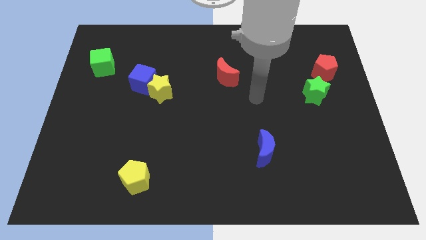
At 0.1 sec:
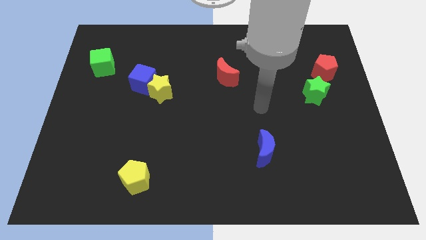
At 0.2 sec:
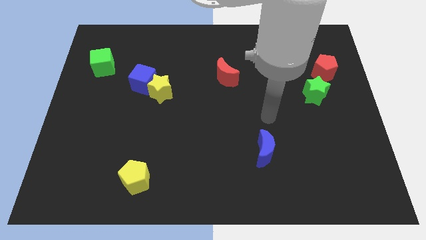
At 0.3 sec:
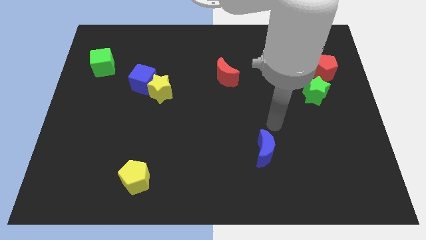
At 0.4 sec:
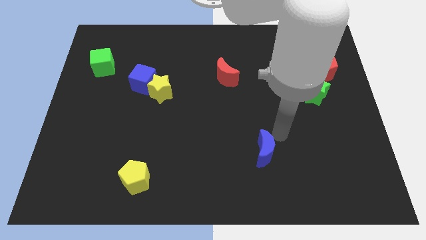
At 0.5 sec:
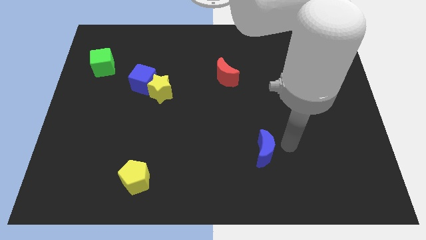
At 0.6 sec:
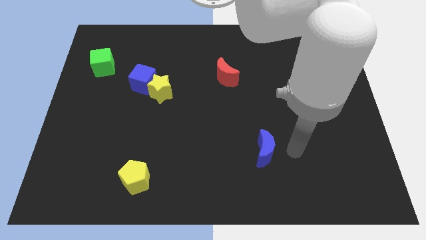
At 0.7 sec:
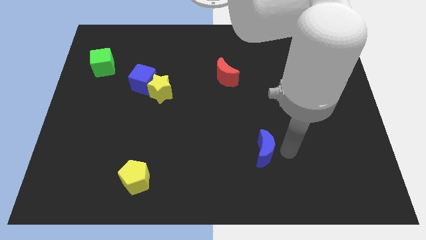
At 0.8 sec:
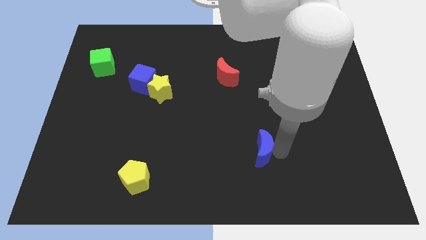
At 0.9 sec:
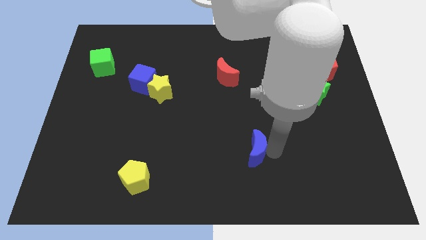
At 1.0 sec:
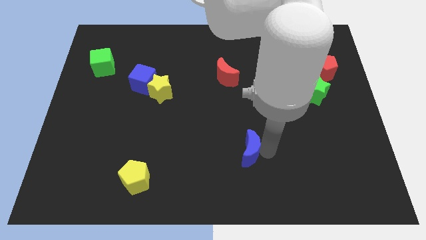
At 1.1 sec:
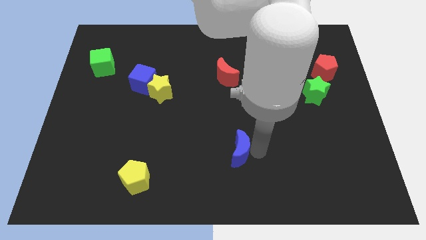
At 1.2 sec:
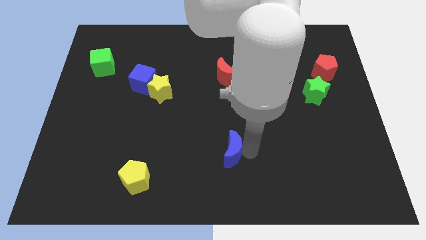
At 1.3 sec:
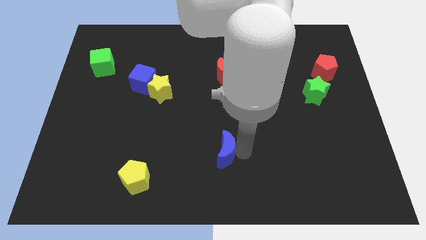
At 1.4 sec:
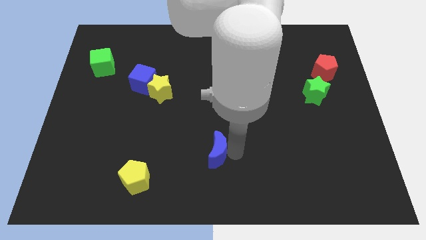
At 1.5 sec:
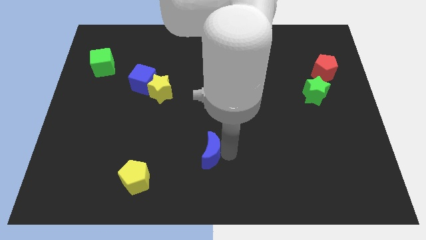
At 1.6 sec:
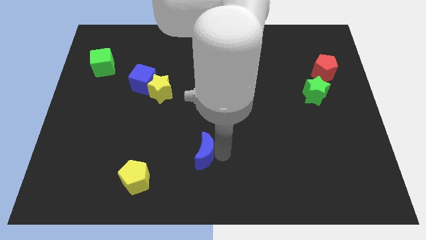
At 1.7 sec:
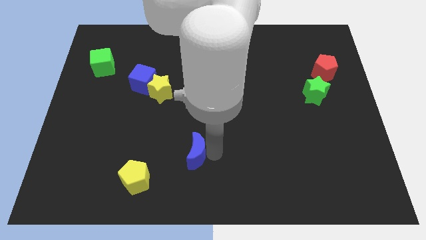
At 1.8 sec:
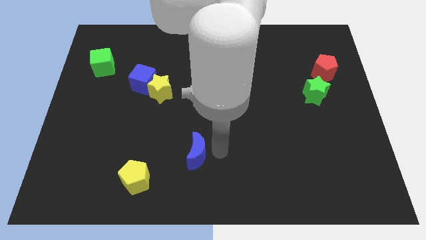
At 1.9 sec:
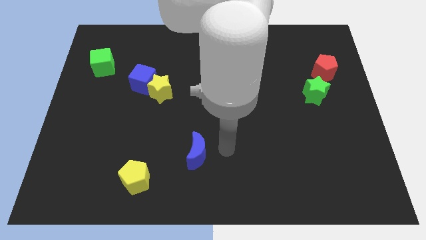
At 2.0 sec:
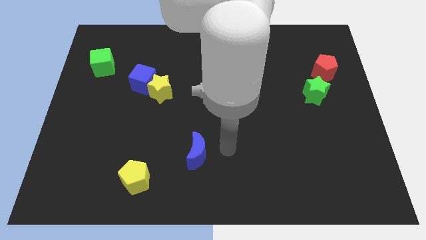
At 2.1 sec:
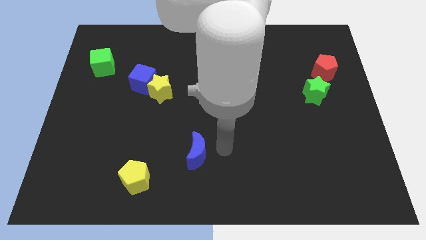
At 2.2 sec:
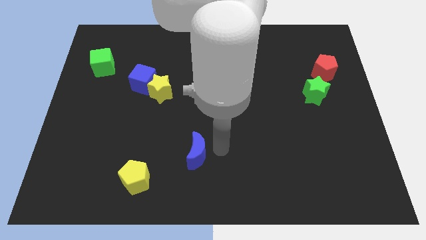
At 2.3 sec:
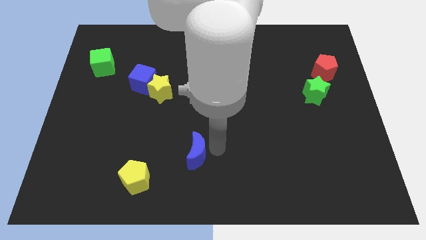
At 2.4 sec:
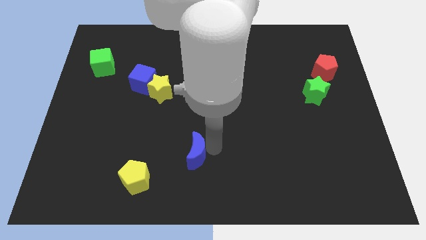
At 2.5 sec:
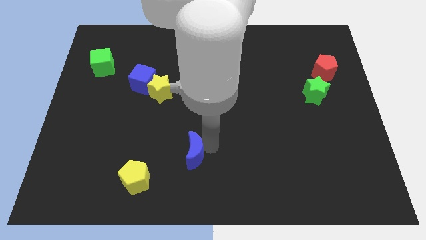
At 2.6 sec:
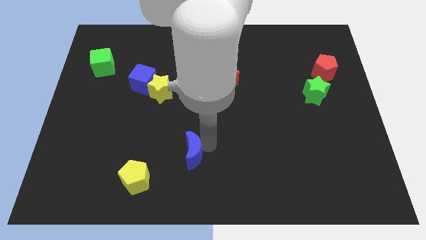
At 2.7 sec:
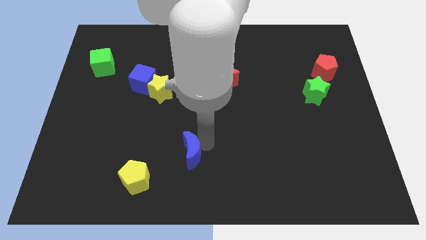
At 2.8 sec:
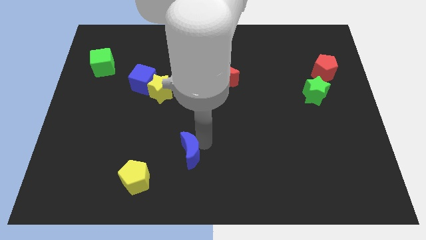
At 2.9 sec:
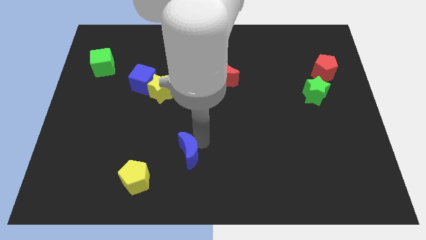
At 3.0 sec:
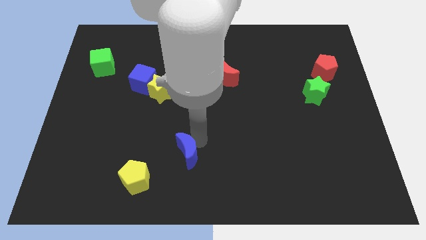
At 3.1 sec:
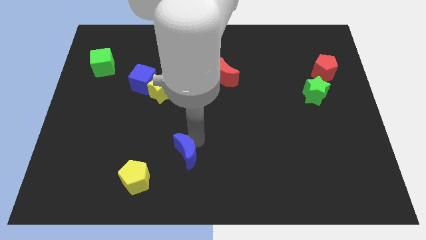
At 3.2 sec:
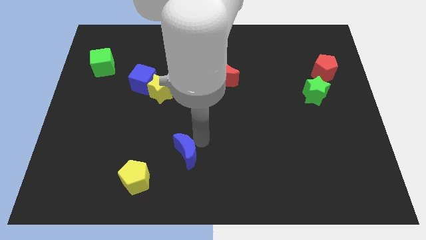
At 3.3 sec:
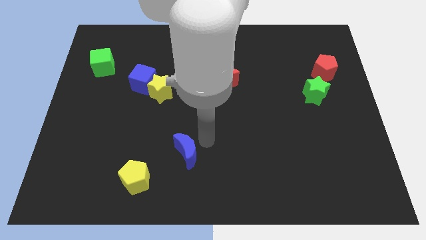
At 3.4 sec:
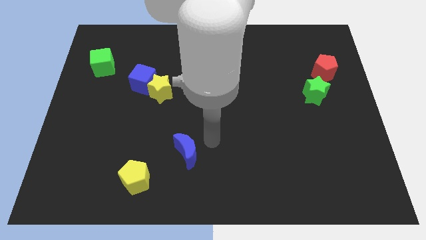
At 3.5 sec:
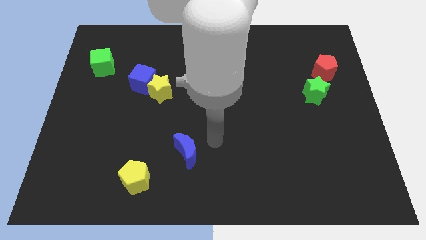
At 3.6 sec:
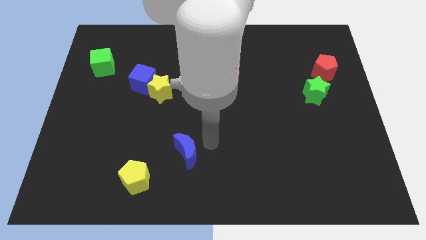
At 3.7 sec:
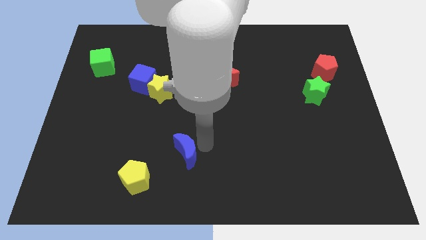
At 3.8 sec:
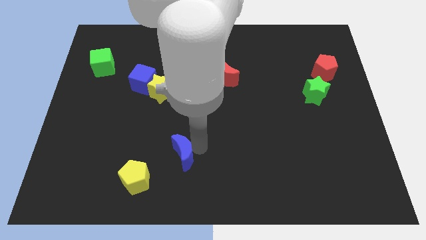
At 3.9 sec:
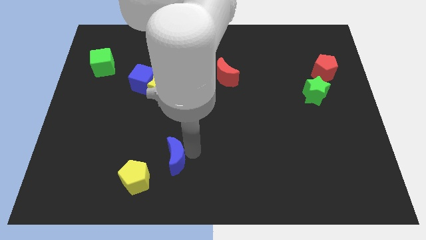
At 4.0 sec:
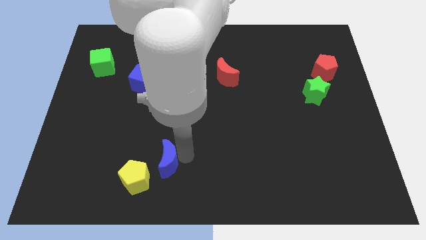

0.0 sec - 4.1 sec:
push the blue moon to the left

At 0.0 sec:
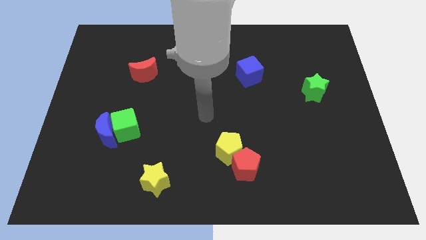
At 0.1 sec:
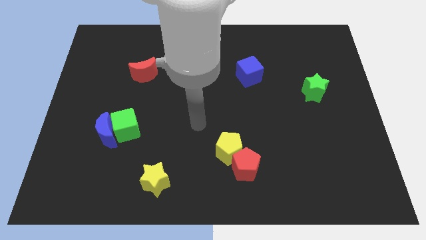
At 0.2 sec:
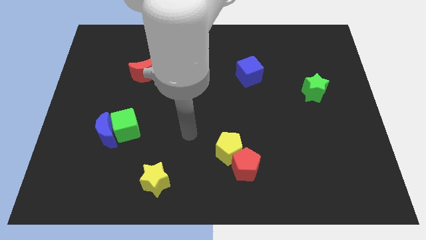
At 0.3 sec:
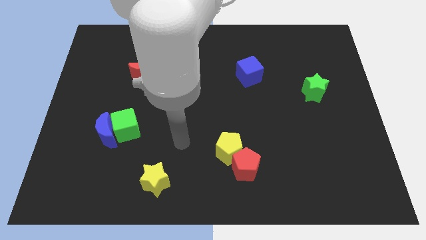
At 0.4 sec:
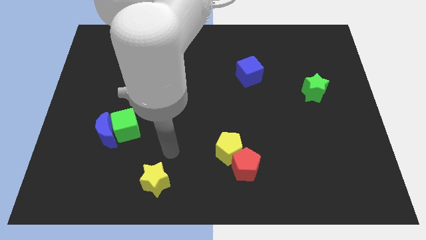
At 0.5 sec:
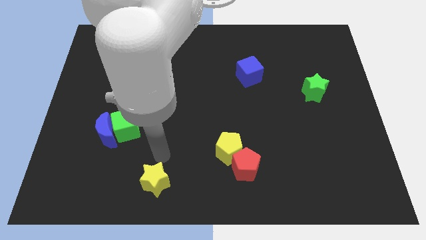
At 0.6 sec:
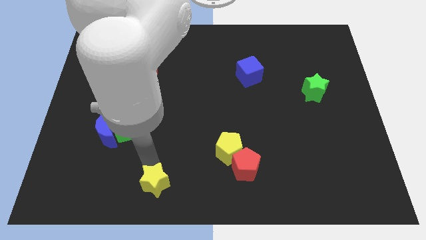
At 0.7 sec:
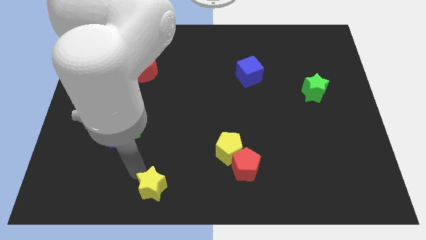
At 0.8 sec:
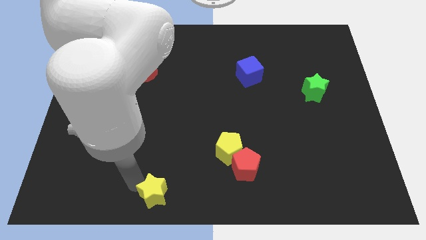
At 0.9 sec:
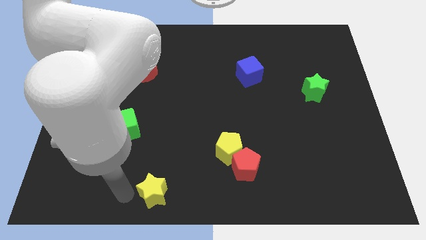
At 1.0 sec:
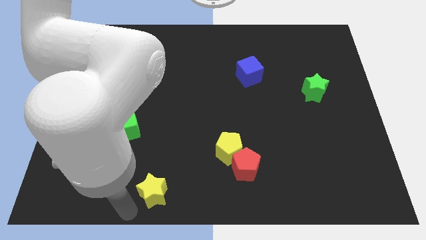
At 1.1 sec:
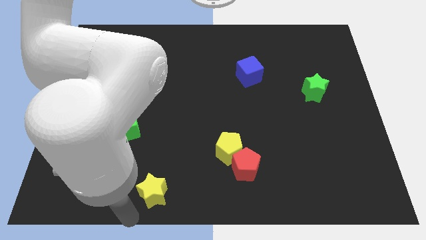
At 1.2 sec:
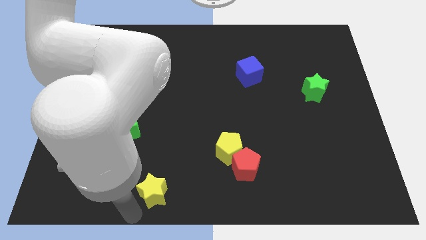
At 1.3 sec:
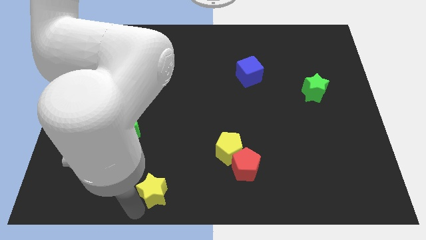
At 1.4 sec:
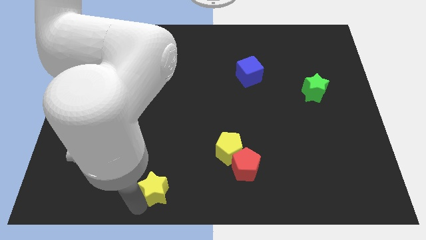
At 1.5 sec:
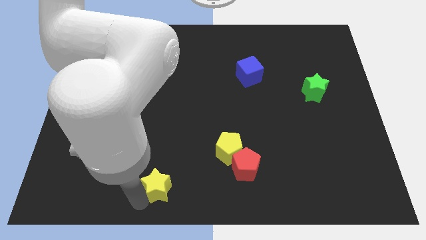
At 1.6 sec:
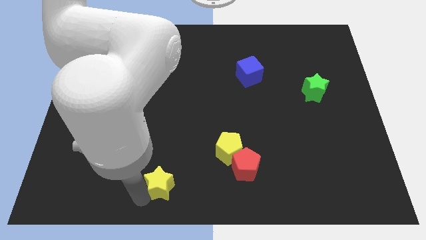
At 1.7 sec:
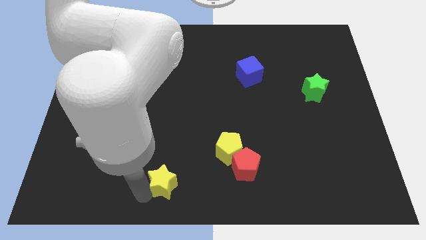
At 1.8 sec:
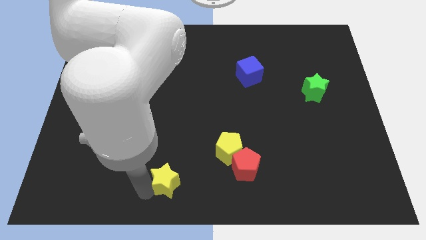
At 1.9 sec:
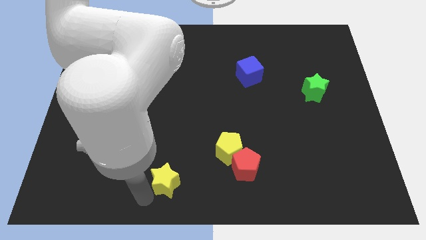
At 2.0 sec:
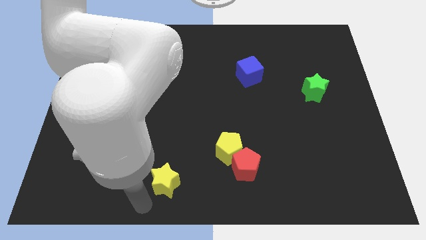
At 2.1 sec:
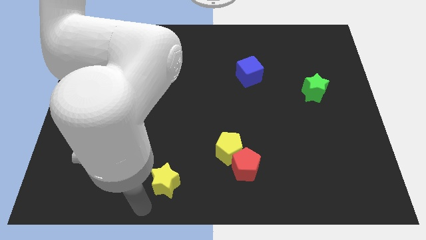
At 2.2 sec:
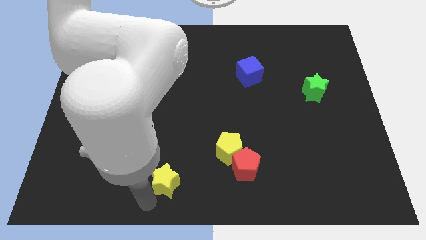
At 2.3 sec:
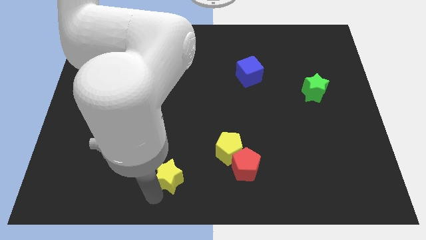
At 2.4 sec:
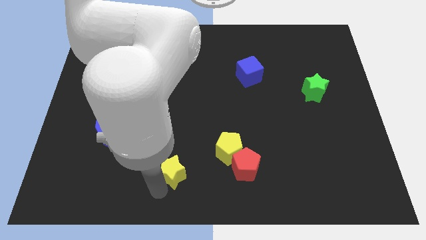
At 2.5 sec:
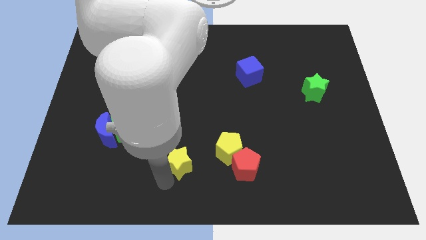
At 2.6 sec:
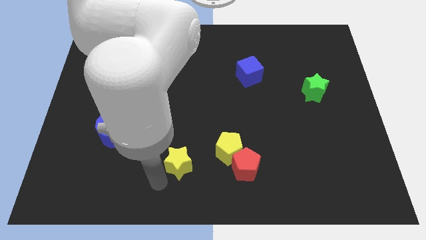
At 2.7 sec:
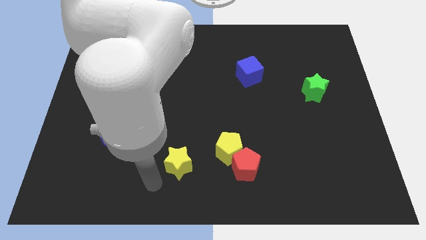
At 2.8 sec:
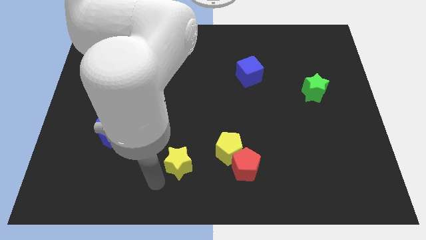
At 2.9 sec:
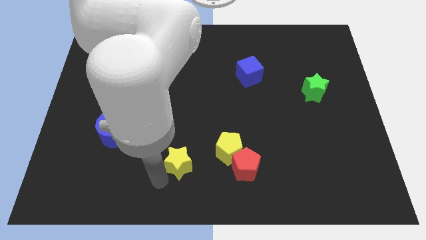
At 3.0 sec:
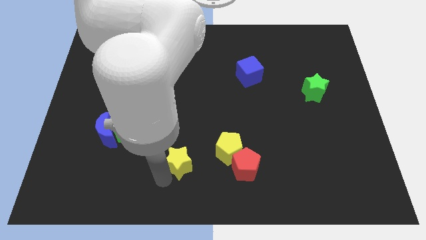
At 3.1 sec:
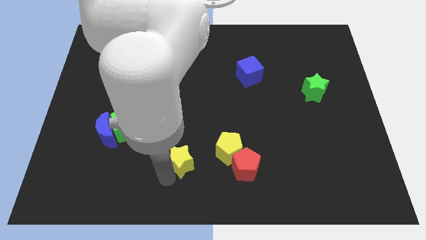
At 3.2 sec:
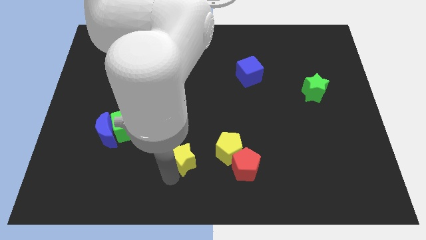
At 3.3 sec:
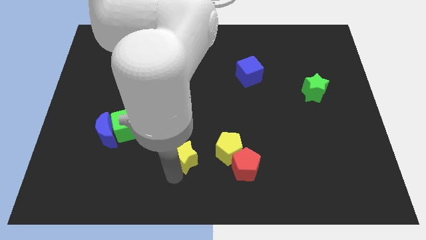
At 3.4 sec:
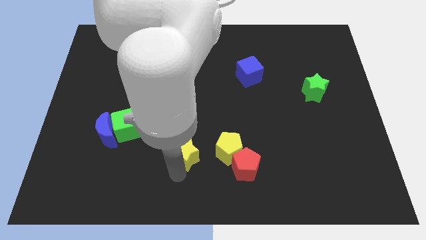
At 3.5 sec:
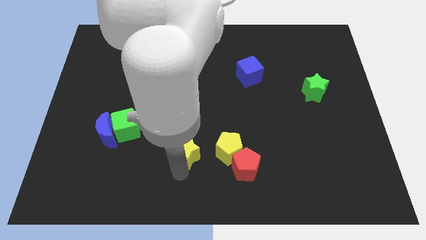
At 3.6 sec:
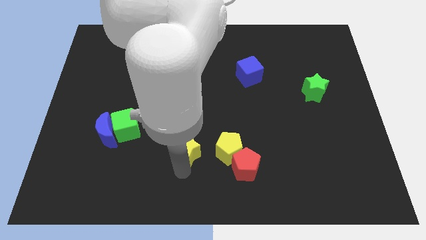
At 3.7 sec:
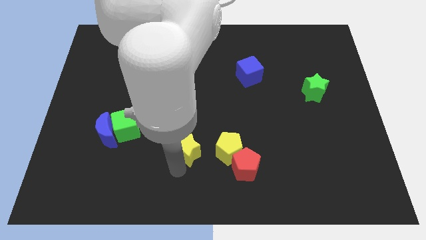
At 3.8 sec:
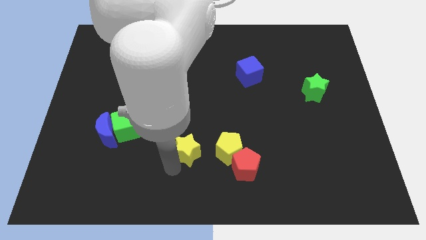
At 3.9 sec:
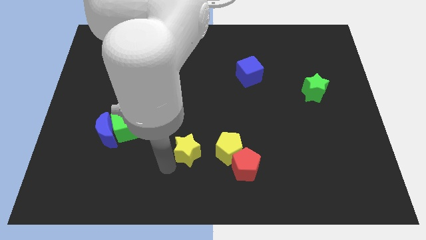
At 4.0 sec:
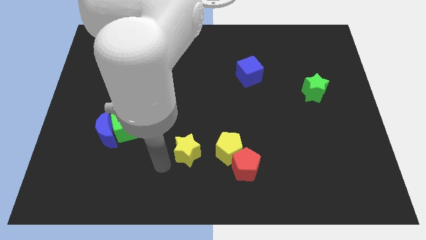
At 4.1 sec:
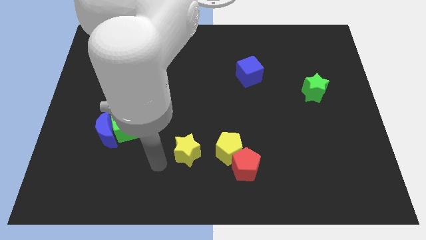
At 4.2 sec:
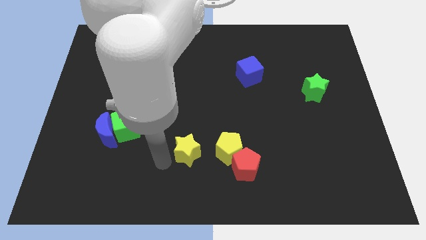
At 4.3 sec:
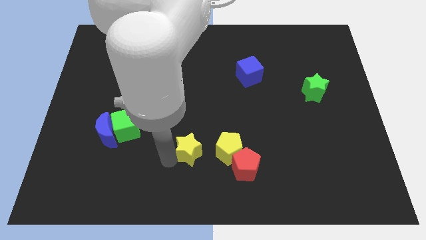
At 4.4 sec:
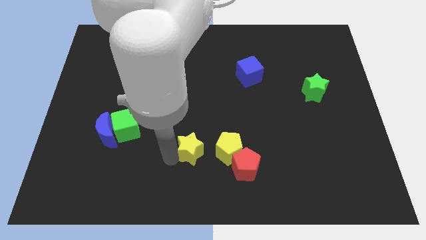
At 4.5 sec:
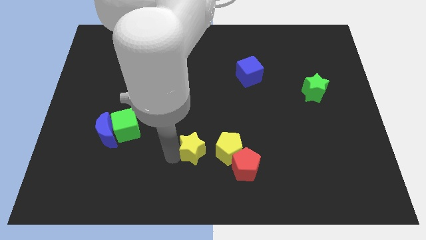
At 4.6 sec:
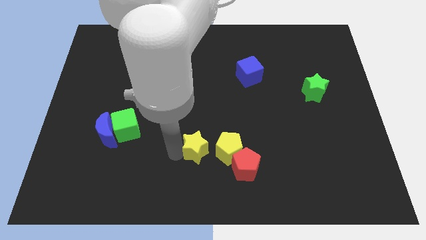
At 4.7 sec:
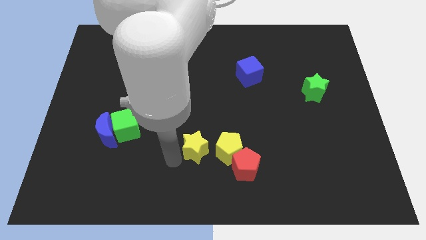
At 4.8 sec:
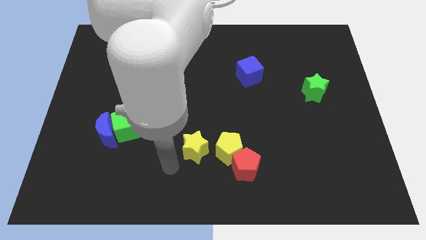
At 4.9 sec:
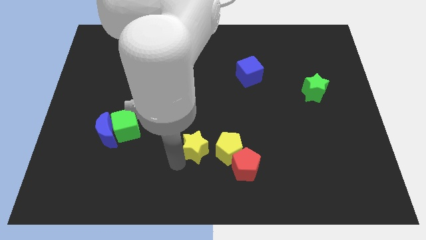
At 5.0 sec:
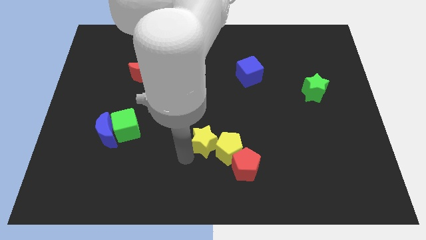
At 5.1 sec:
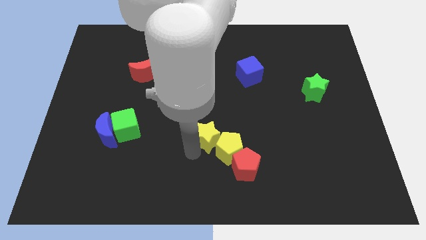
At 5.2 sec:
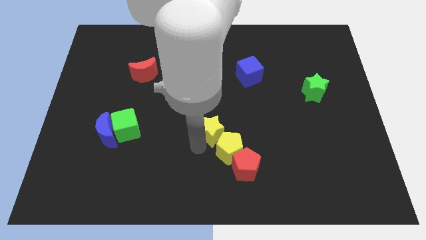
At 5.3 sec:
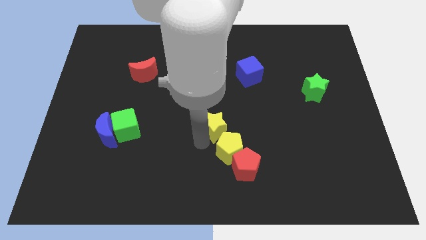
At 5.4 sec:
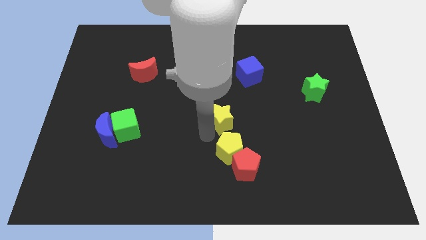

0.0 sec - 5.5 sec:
move the yellow star upwards and right diagonally
